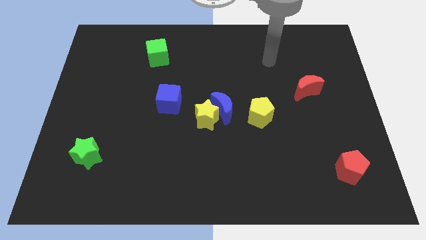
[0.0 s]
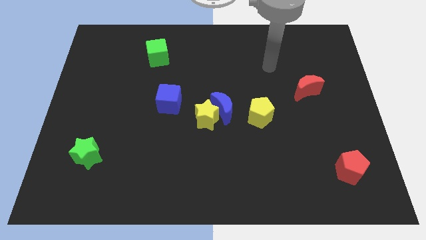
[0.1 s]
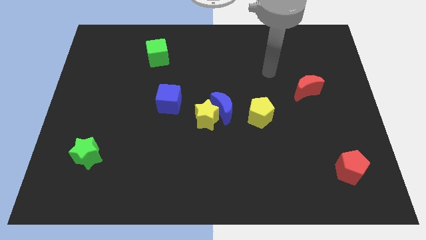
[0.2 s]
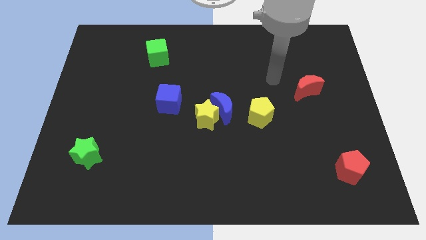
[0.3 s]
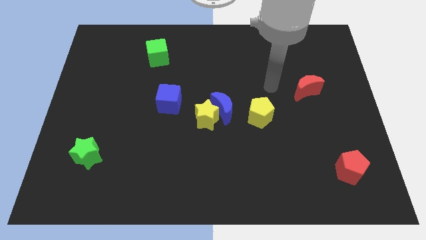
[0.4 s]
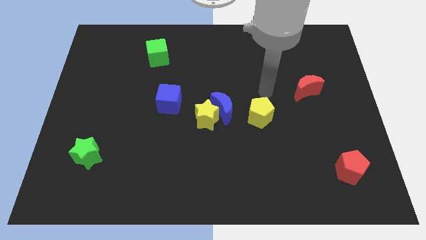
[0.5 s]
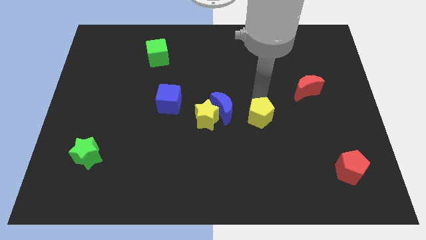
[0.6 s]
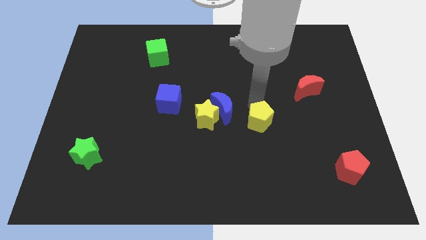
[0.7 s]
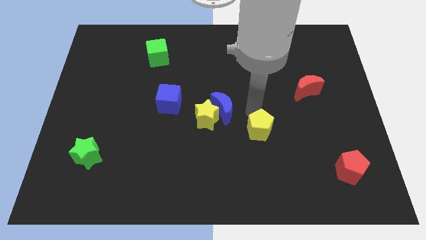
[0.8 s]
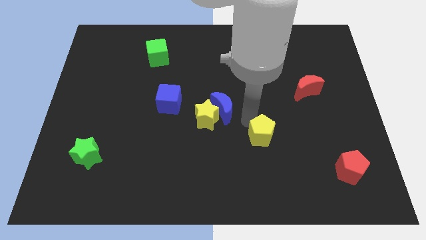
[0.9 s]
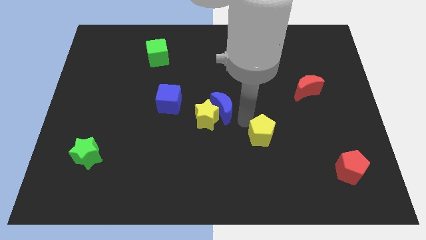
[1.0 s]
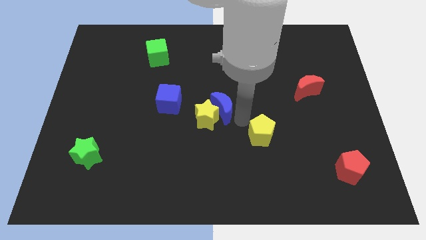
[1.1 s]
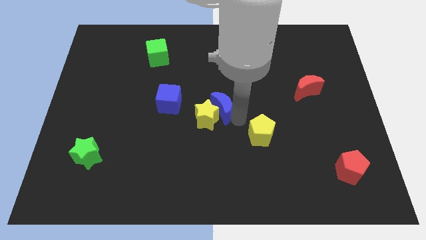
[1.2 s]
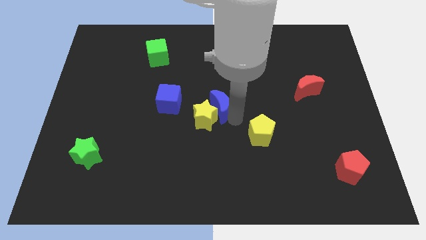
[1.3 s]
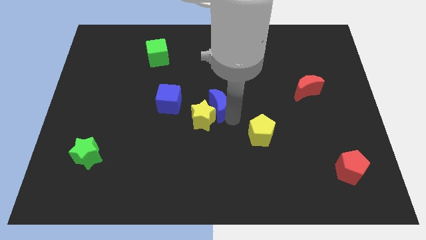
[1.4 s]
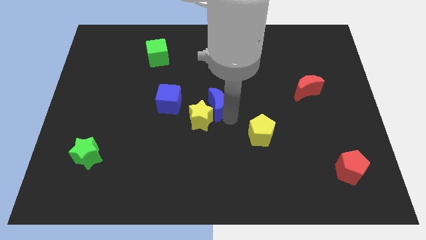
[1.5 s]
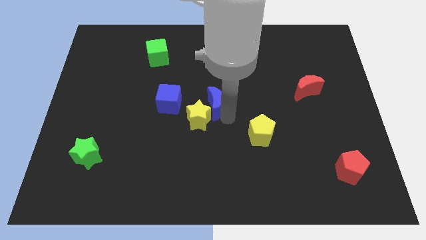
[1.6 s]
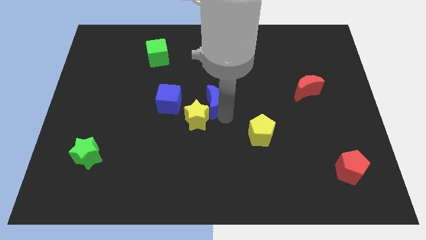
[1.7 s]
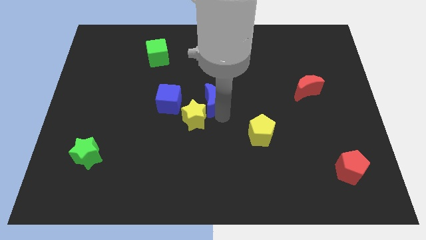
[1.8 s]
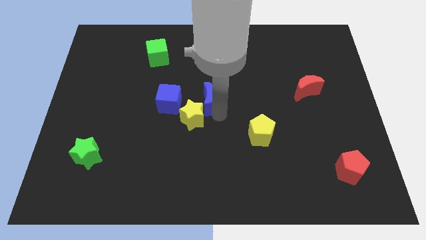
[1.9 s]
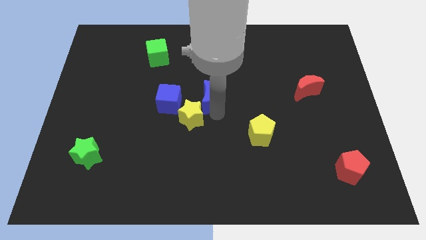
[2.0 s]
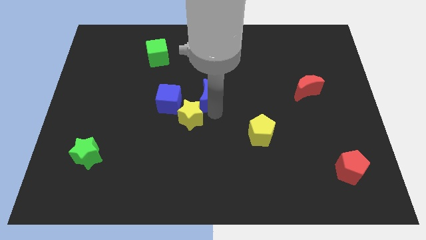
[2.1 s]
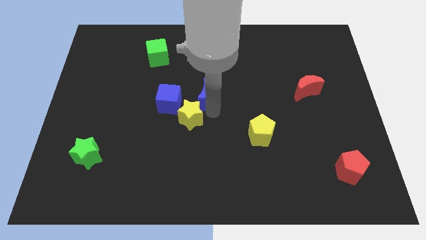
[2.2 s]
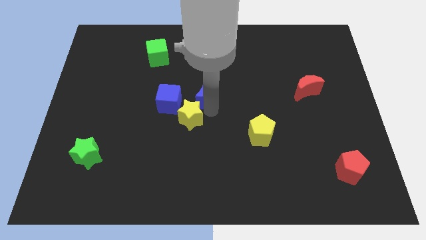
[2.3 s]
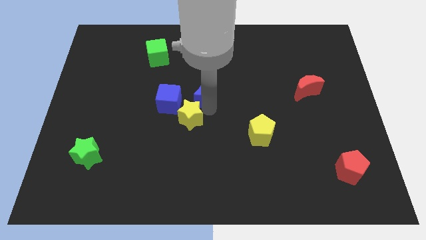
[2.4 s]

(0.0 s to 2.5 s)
separate the blue moon from the yellow star and yellow pentagon

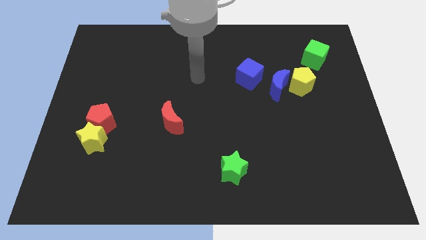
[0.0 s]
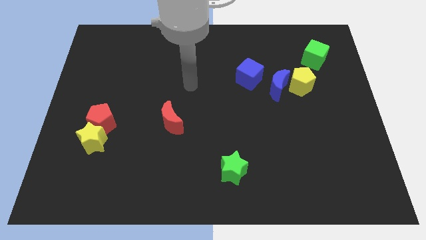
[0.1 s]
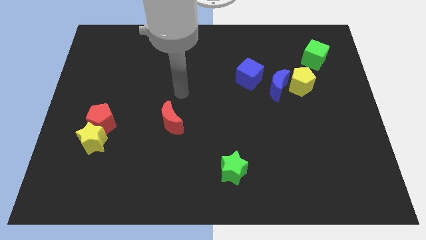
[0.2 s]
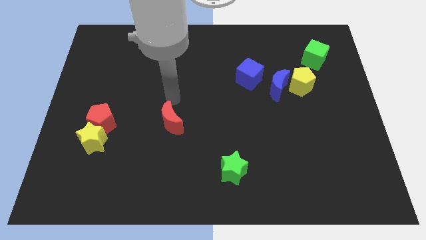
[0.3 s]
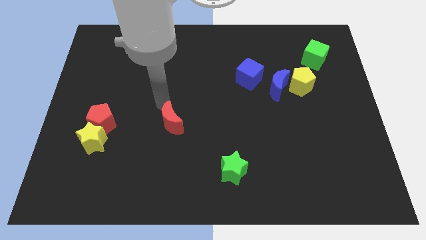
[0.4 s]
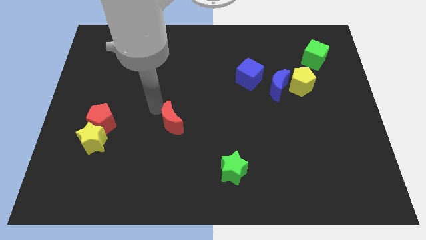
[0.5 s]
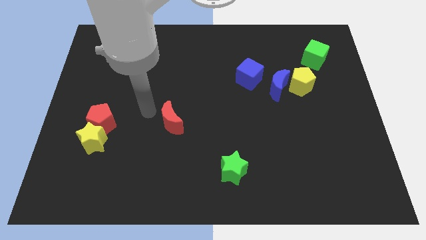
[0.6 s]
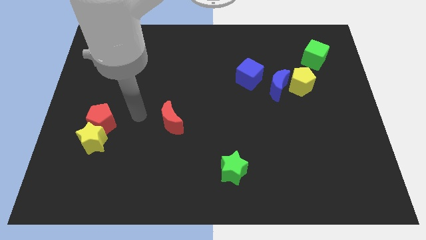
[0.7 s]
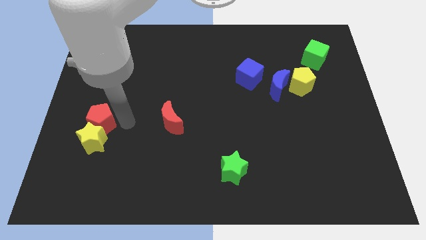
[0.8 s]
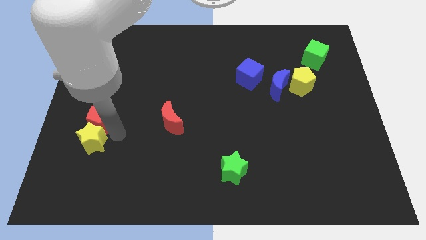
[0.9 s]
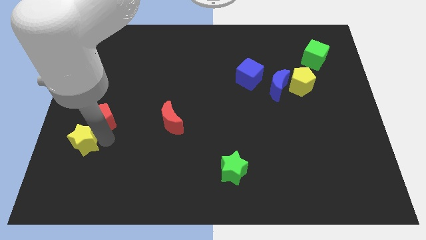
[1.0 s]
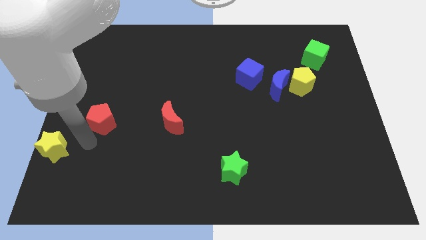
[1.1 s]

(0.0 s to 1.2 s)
move the red pentagon away from the yellow star

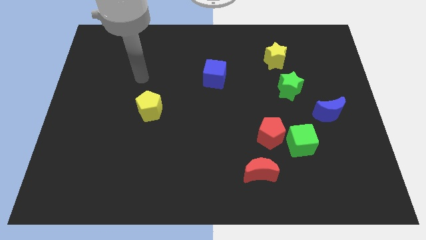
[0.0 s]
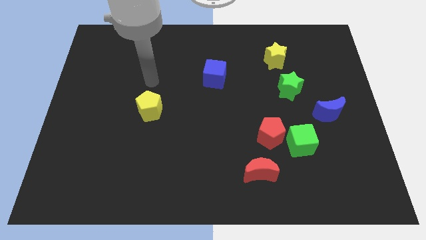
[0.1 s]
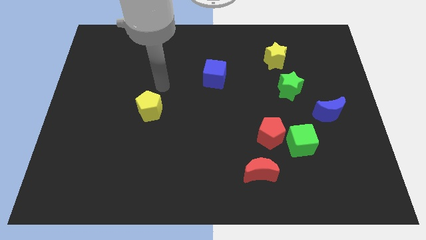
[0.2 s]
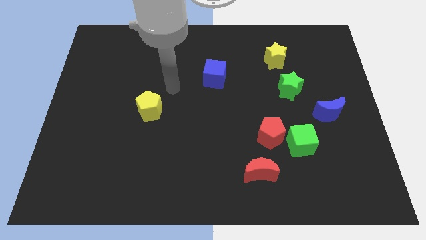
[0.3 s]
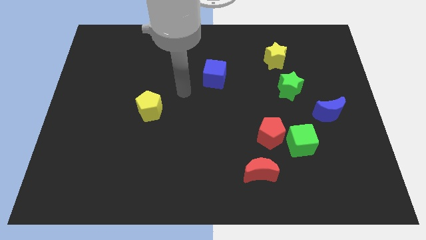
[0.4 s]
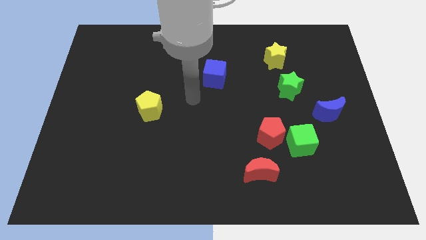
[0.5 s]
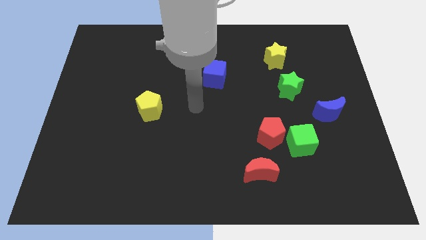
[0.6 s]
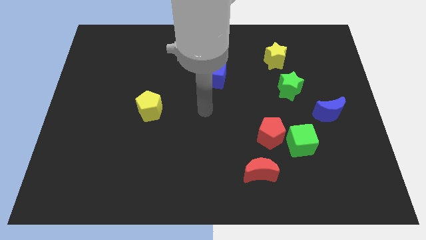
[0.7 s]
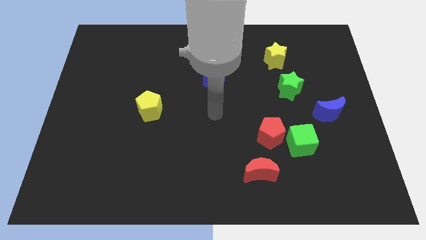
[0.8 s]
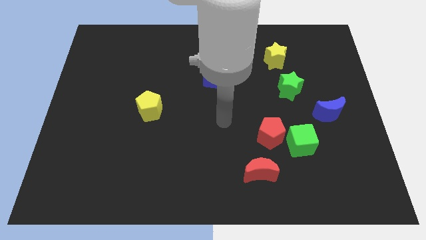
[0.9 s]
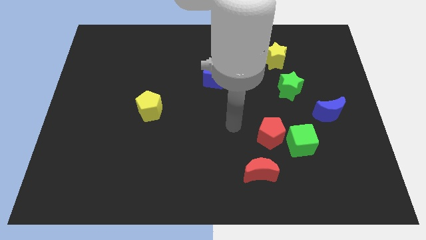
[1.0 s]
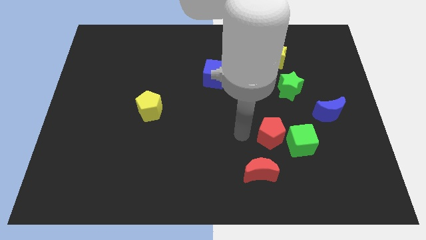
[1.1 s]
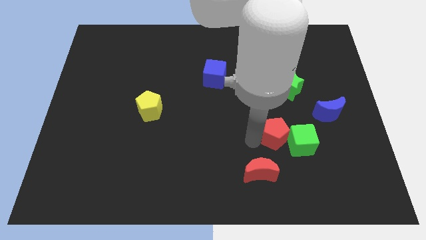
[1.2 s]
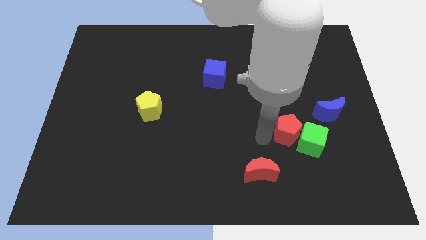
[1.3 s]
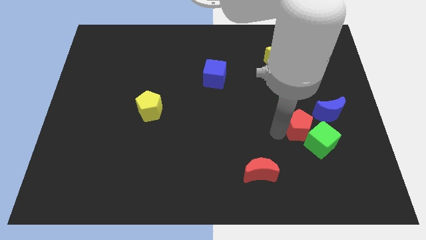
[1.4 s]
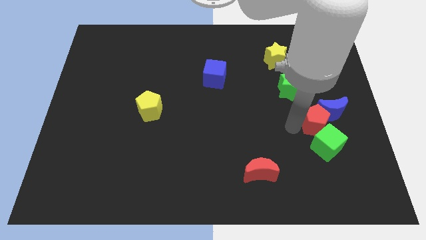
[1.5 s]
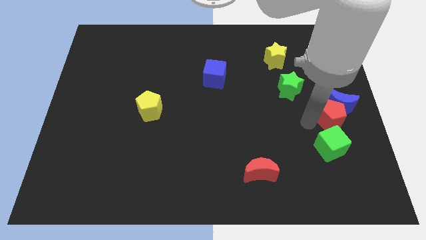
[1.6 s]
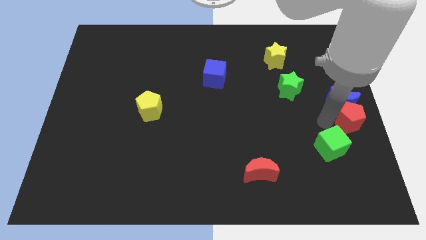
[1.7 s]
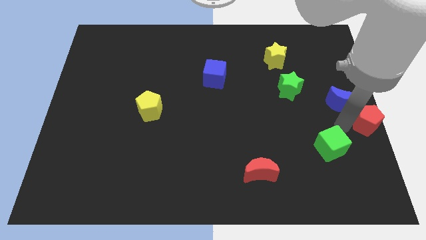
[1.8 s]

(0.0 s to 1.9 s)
separate the green cube from the red pentagon

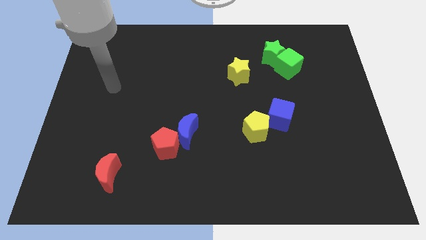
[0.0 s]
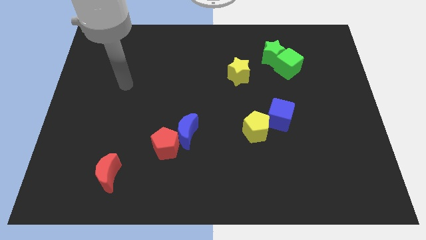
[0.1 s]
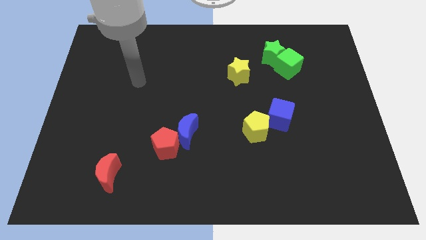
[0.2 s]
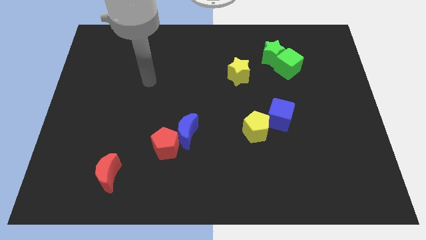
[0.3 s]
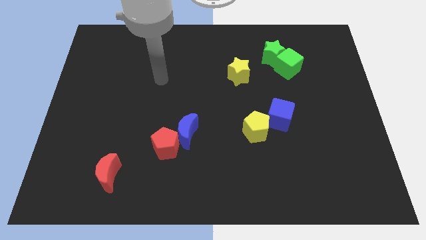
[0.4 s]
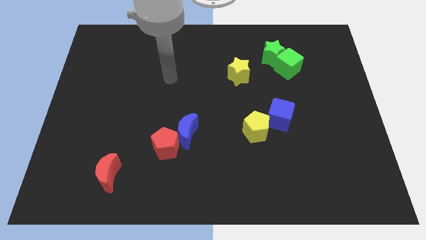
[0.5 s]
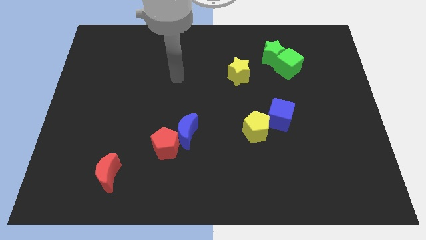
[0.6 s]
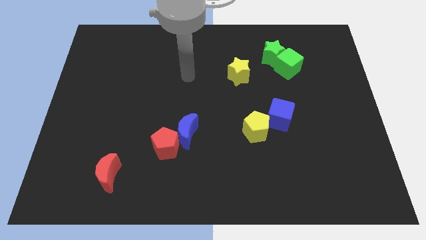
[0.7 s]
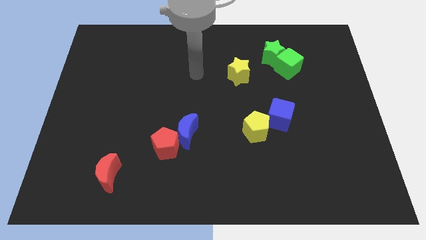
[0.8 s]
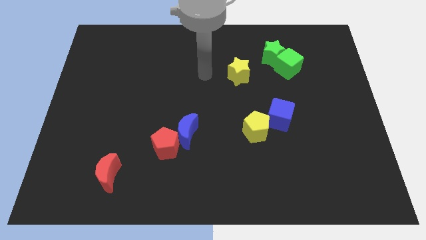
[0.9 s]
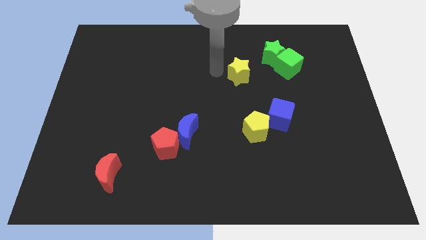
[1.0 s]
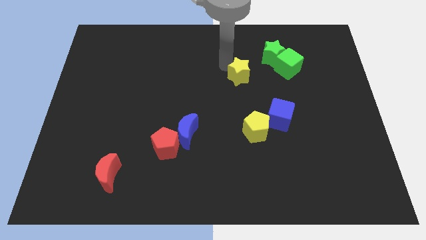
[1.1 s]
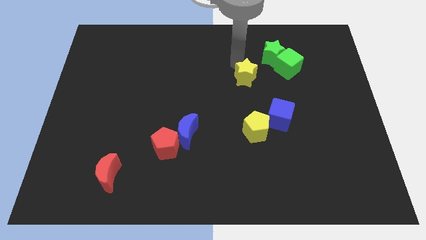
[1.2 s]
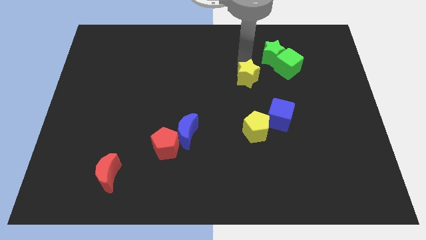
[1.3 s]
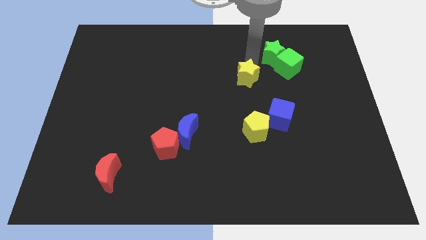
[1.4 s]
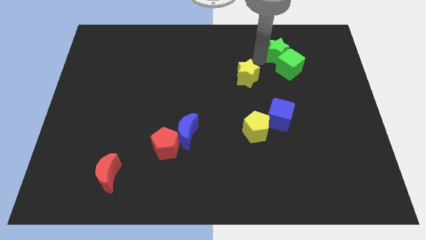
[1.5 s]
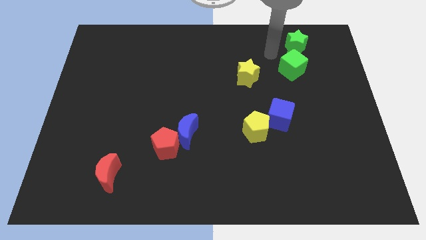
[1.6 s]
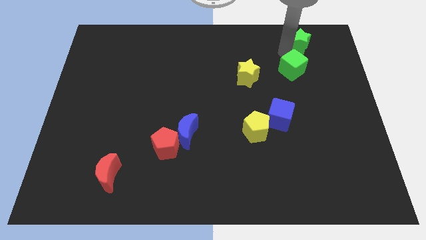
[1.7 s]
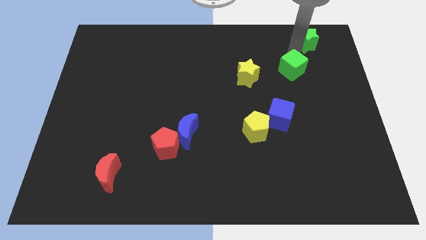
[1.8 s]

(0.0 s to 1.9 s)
move the green cube away from the green star

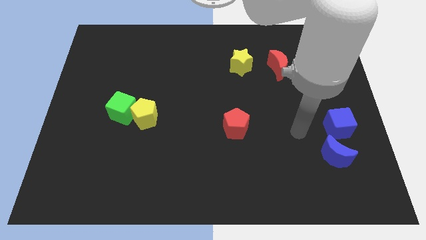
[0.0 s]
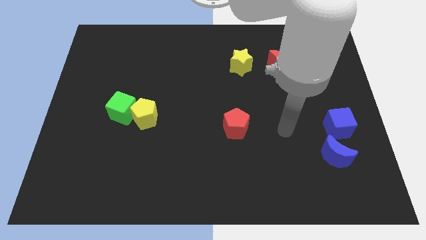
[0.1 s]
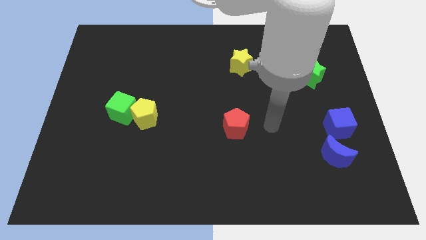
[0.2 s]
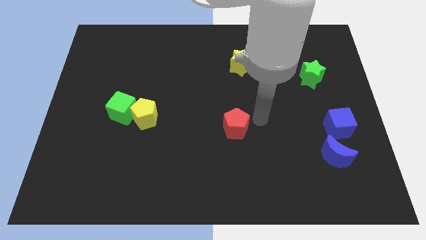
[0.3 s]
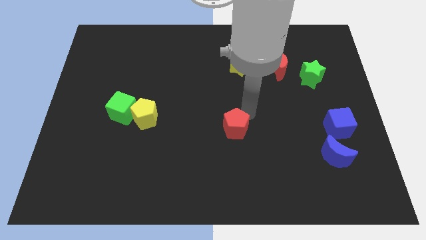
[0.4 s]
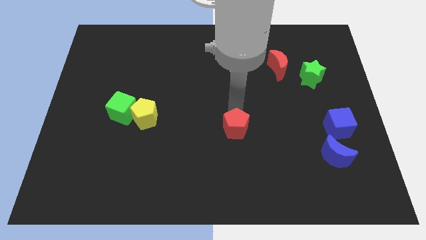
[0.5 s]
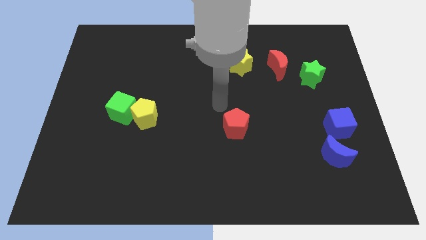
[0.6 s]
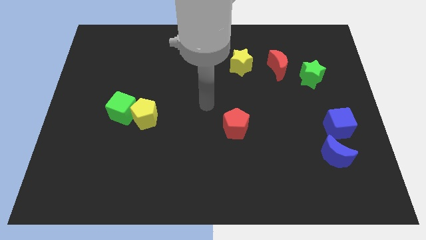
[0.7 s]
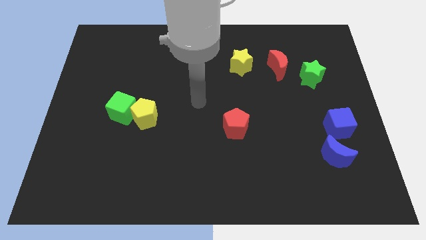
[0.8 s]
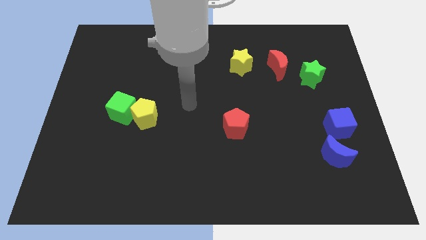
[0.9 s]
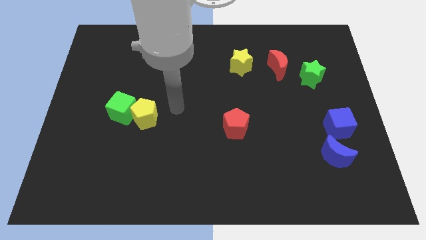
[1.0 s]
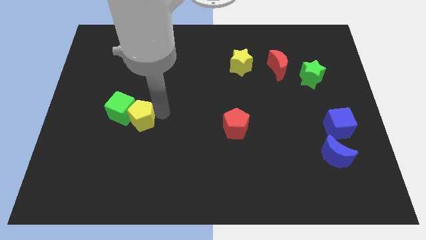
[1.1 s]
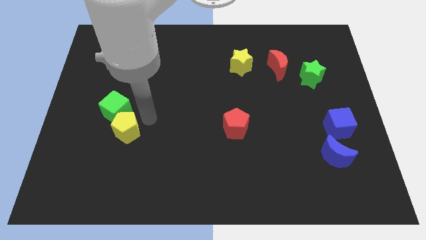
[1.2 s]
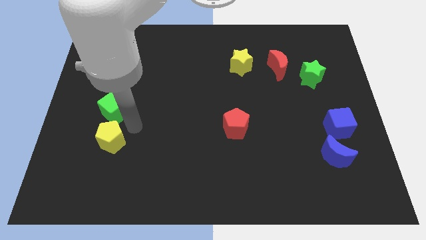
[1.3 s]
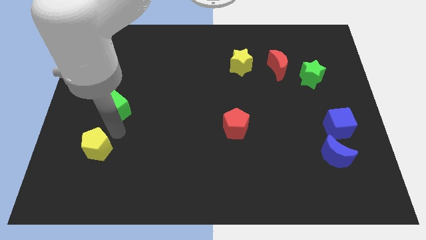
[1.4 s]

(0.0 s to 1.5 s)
separate the green cube from the yellow pentagon

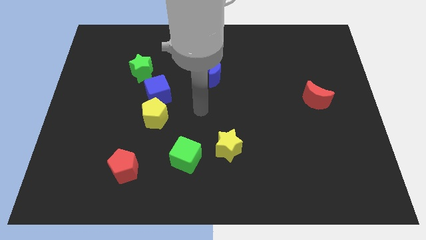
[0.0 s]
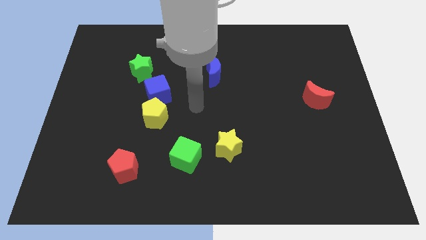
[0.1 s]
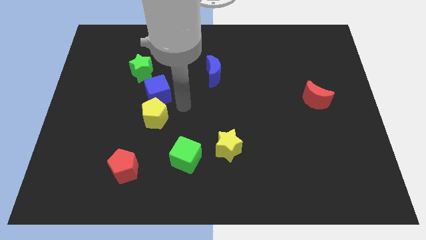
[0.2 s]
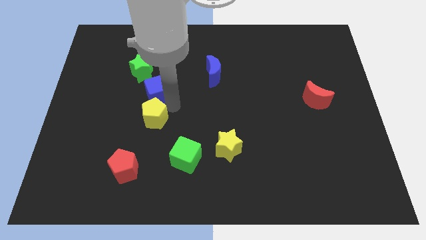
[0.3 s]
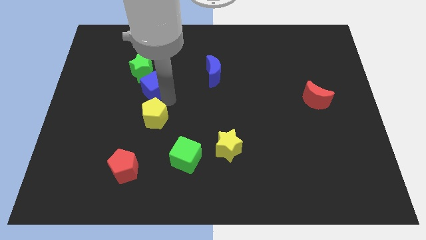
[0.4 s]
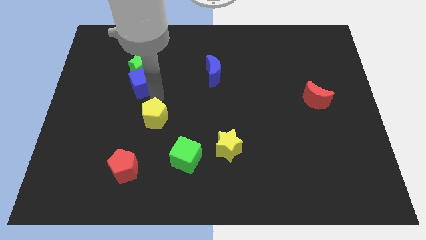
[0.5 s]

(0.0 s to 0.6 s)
separate the yellow pentagon from the blue cube
